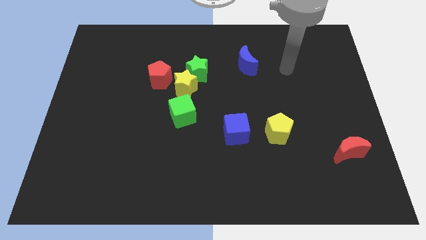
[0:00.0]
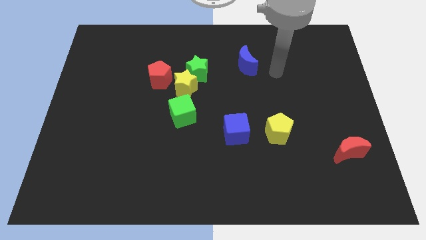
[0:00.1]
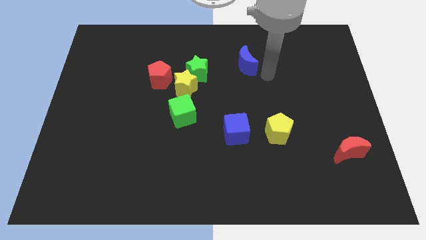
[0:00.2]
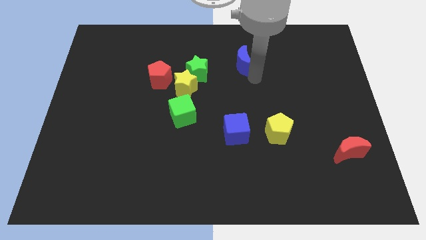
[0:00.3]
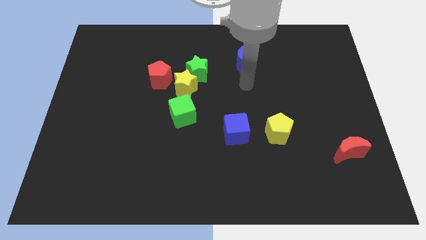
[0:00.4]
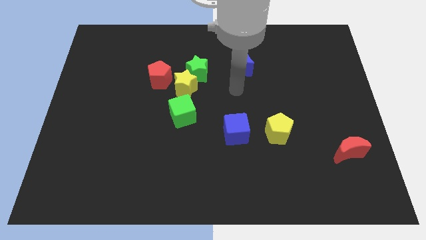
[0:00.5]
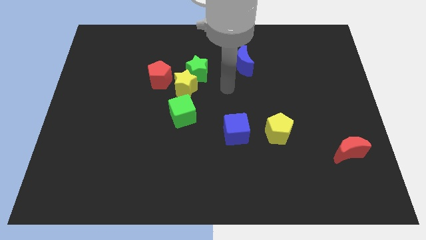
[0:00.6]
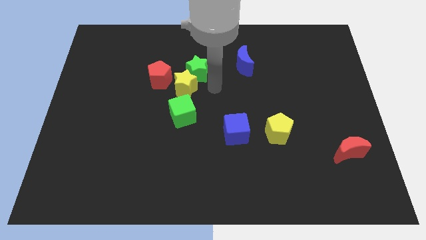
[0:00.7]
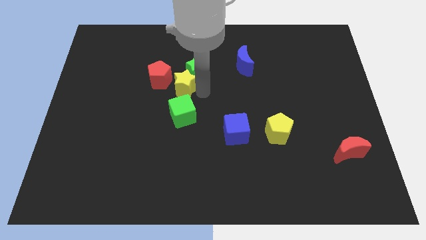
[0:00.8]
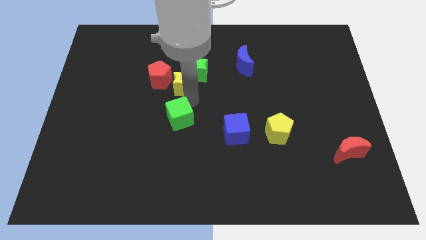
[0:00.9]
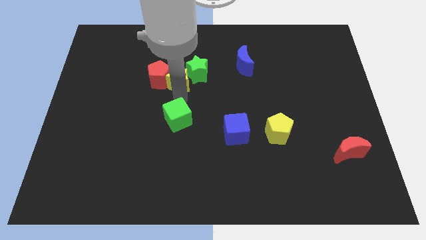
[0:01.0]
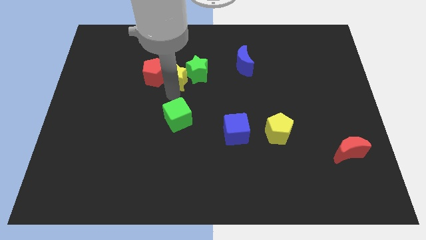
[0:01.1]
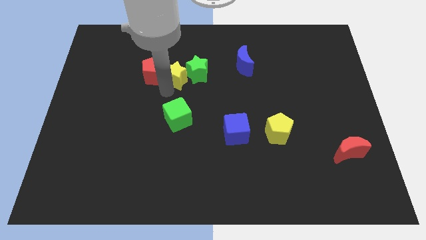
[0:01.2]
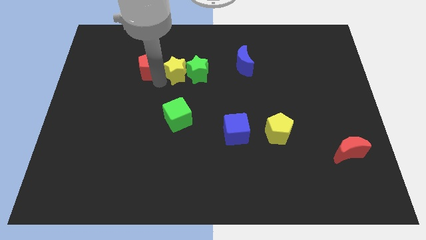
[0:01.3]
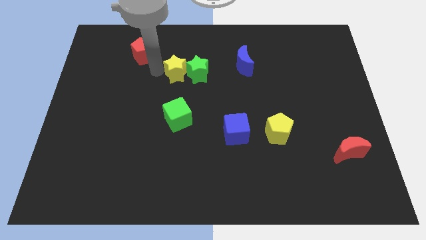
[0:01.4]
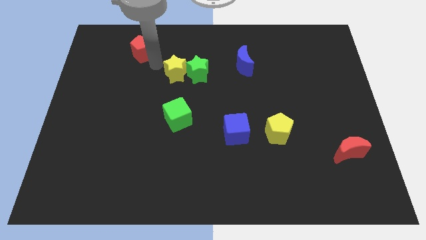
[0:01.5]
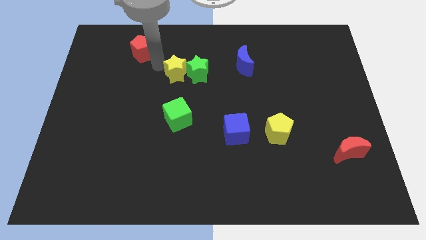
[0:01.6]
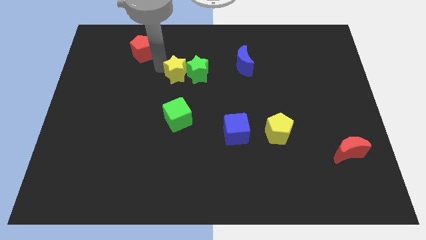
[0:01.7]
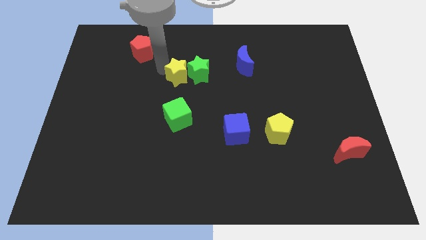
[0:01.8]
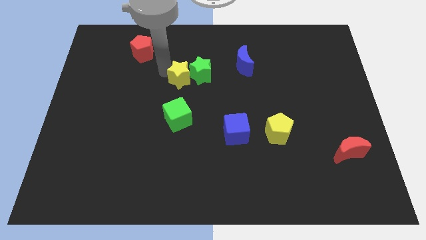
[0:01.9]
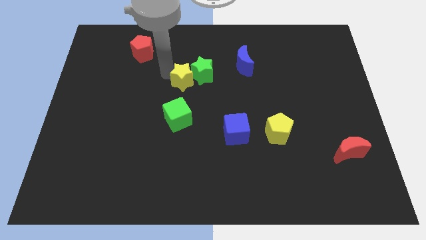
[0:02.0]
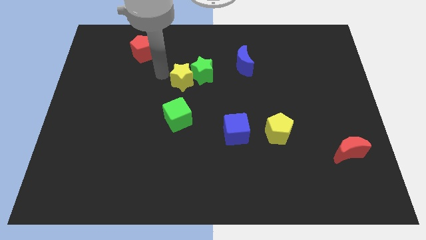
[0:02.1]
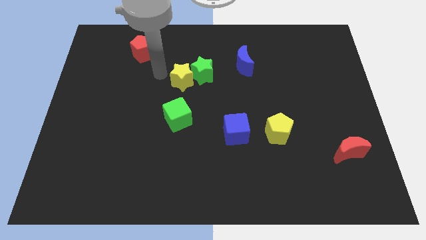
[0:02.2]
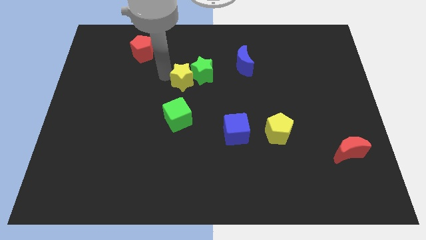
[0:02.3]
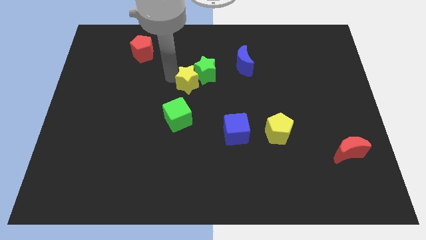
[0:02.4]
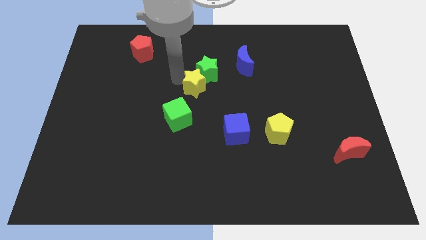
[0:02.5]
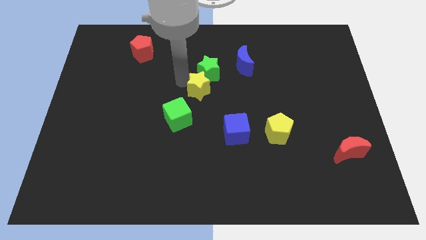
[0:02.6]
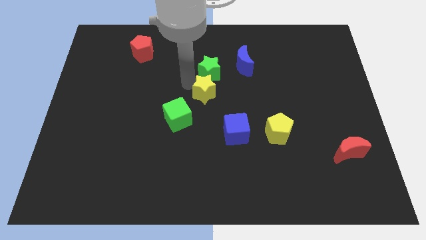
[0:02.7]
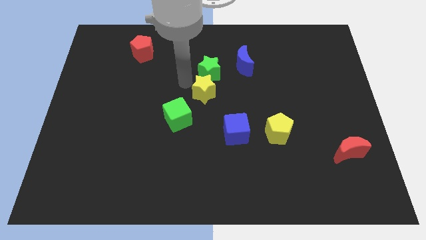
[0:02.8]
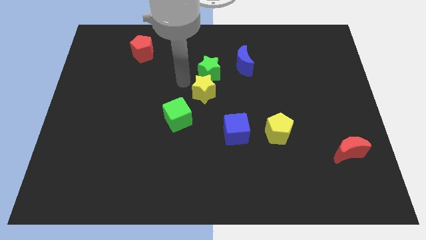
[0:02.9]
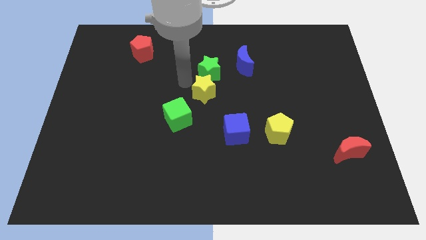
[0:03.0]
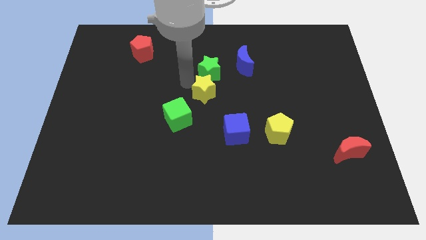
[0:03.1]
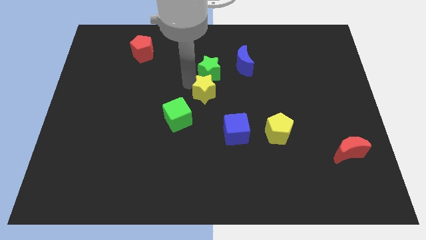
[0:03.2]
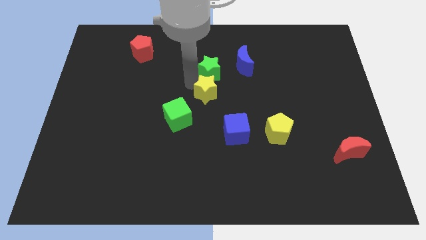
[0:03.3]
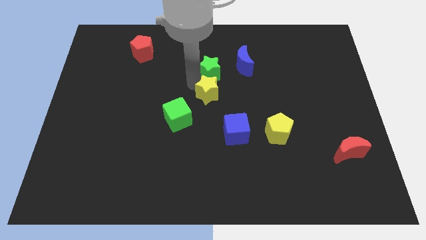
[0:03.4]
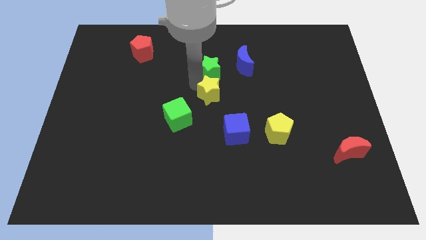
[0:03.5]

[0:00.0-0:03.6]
move the yellow star away from the group of blocks

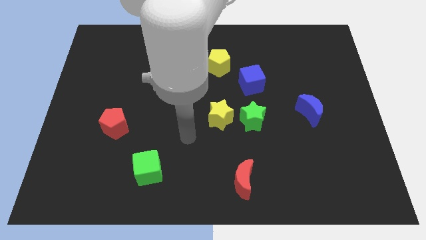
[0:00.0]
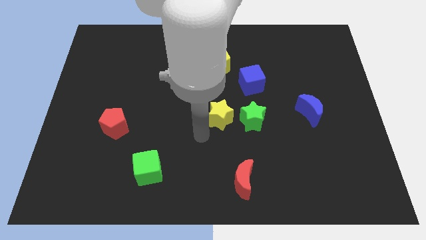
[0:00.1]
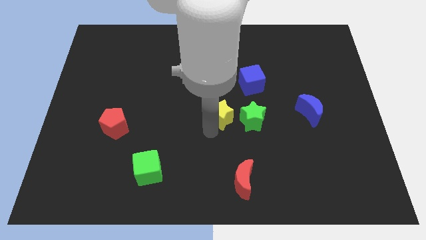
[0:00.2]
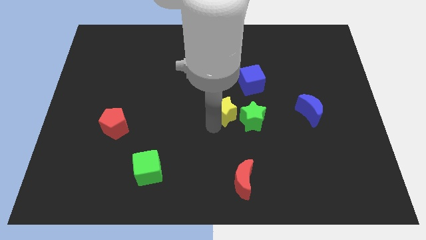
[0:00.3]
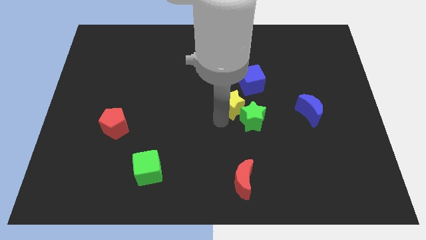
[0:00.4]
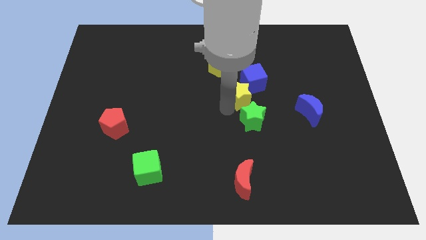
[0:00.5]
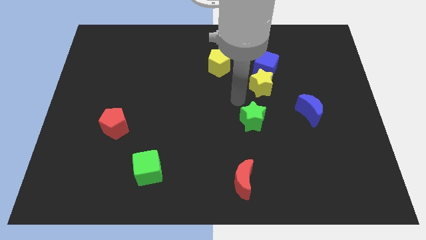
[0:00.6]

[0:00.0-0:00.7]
move the green star away from the yellow star

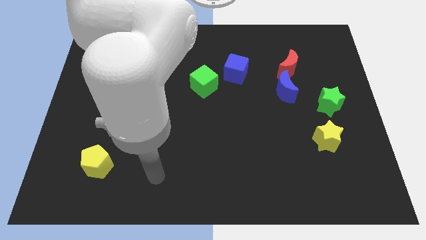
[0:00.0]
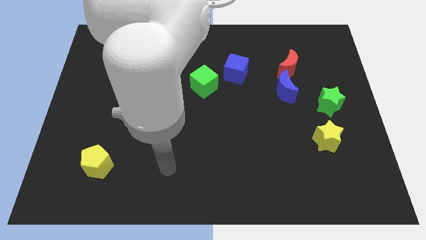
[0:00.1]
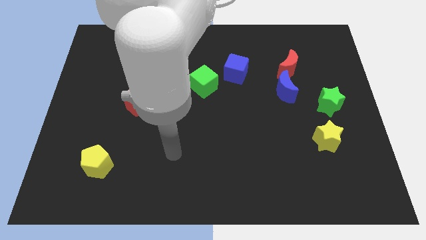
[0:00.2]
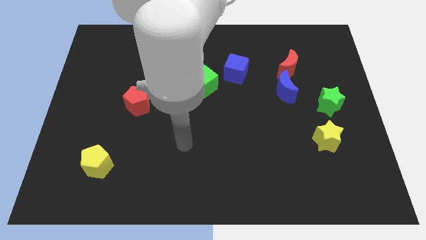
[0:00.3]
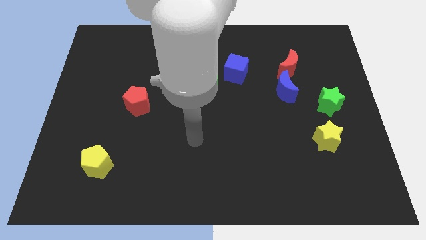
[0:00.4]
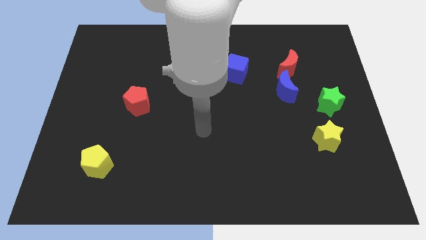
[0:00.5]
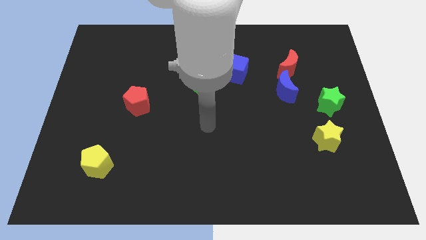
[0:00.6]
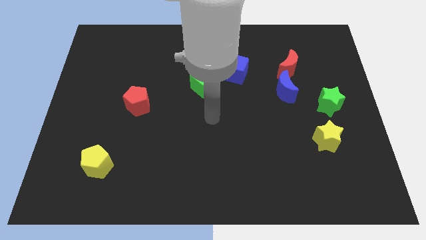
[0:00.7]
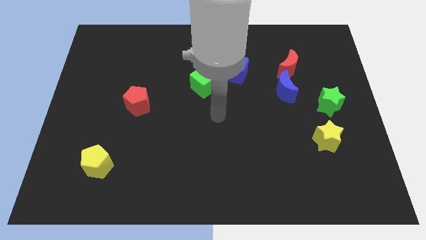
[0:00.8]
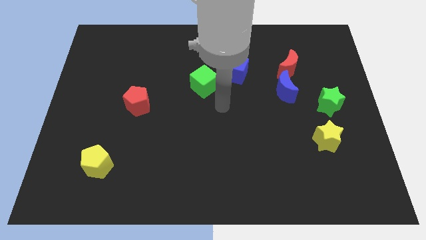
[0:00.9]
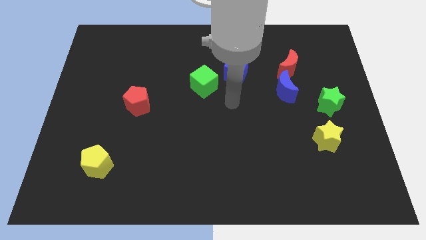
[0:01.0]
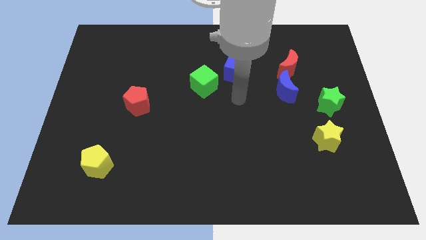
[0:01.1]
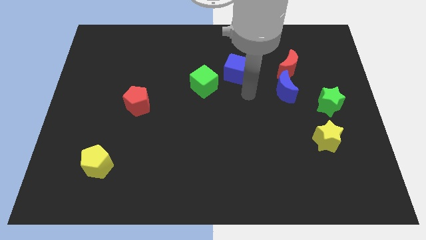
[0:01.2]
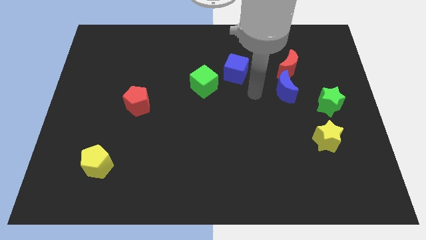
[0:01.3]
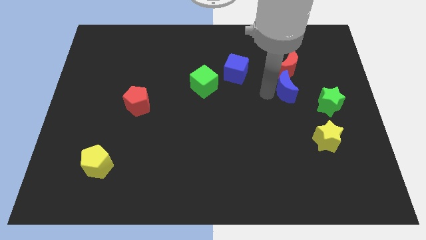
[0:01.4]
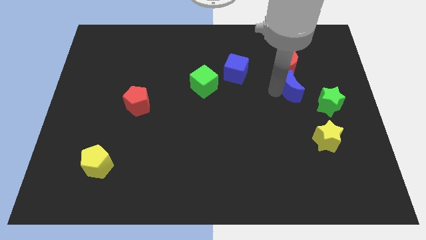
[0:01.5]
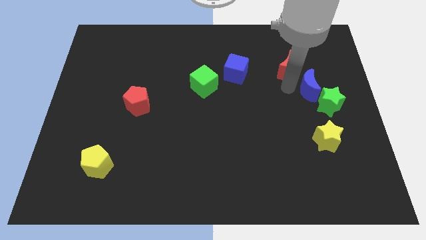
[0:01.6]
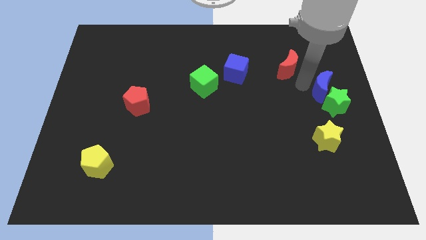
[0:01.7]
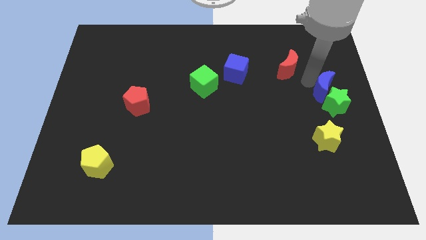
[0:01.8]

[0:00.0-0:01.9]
separate the red moon from the blue moon

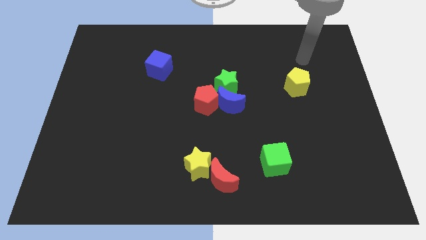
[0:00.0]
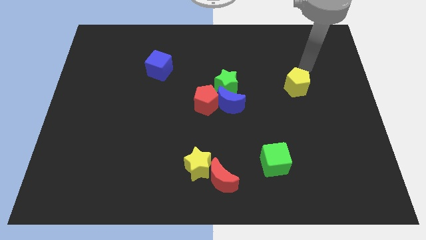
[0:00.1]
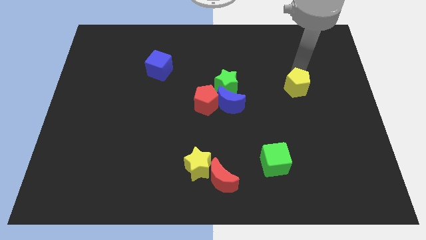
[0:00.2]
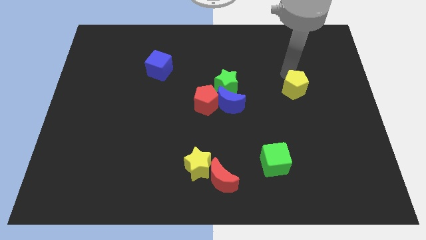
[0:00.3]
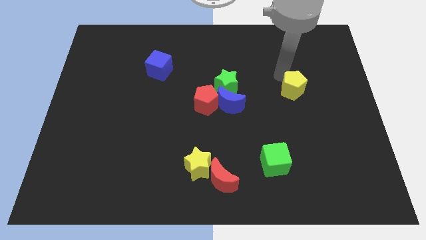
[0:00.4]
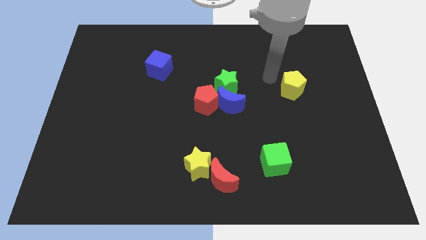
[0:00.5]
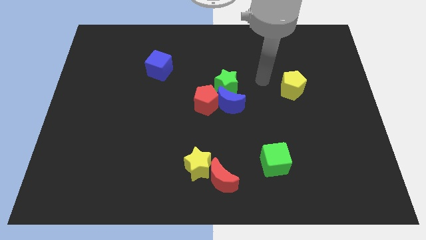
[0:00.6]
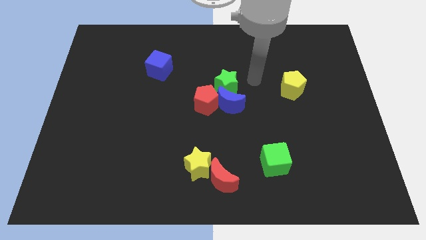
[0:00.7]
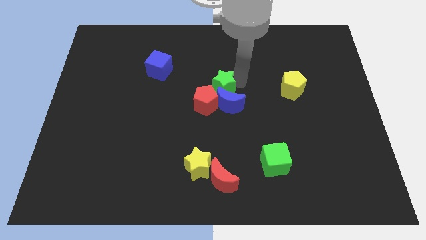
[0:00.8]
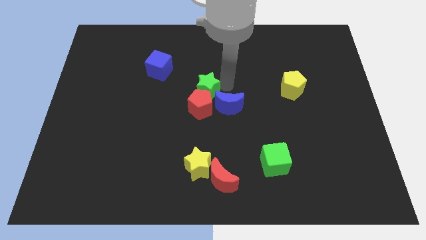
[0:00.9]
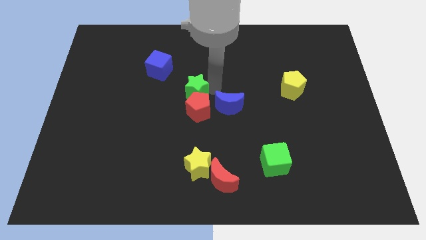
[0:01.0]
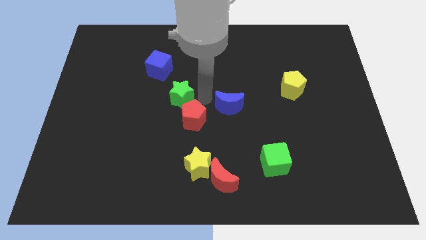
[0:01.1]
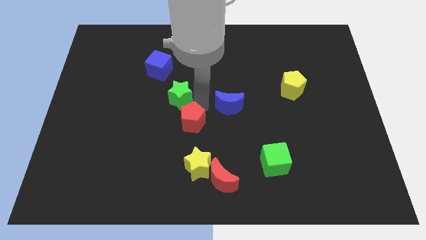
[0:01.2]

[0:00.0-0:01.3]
pull the blue moon apart from the red pentagon and green star

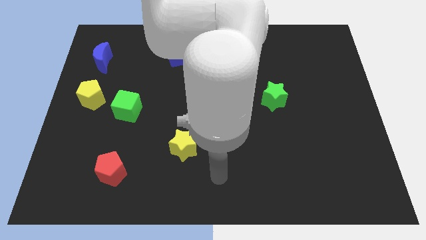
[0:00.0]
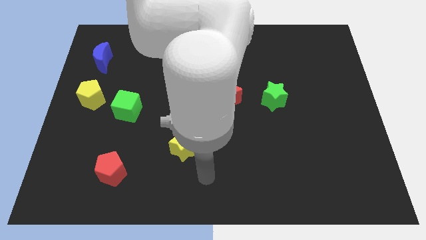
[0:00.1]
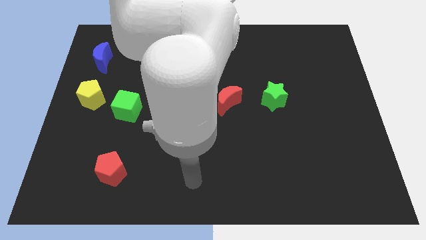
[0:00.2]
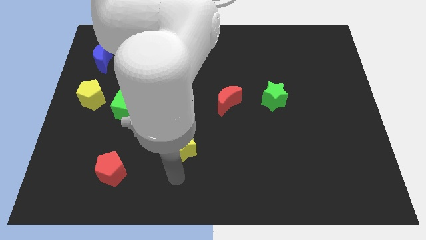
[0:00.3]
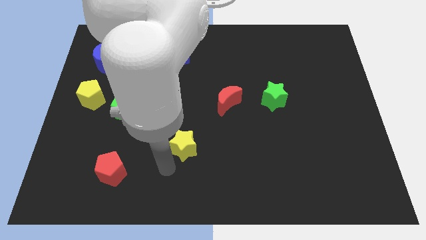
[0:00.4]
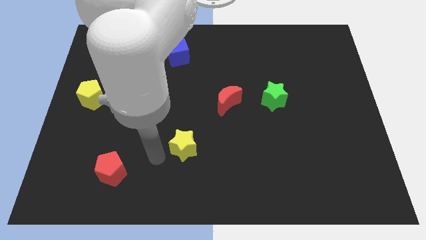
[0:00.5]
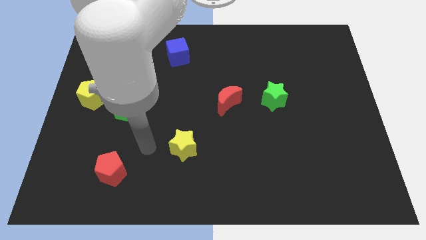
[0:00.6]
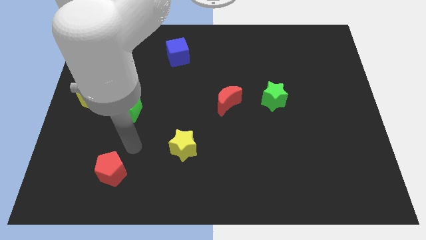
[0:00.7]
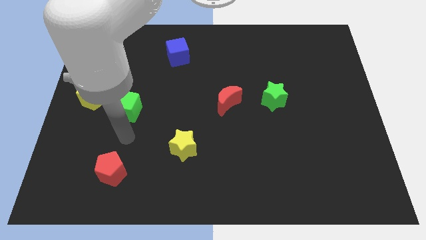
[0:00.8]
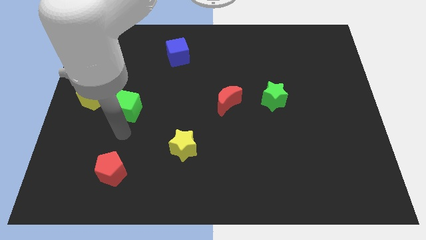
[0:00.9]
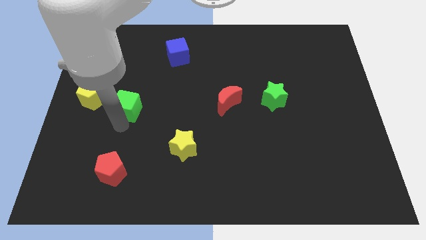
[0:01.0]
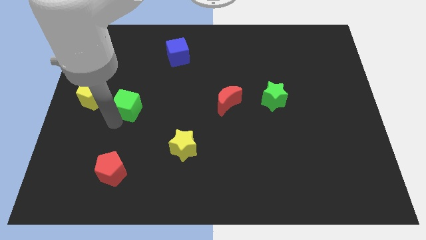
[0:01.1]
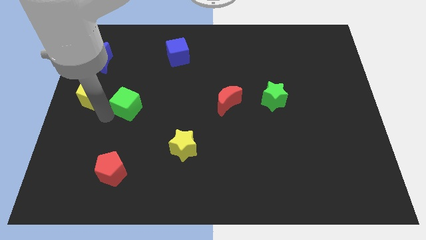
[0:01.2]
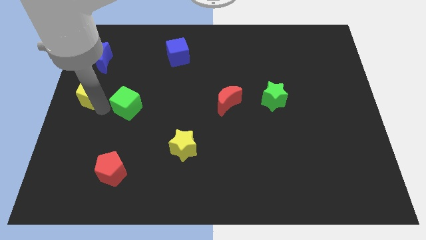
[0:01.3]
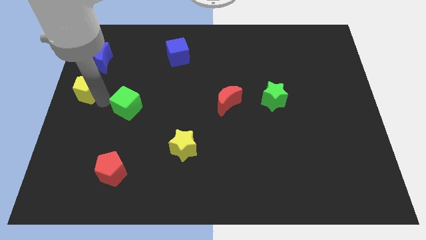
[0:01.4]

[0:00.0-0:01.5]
separate the green cube from the yellow pentagon

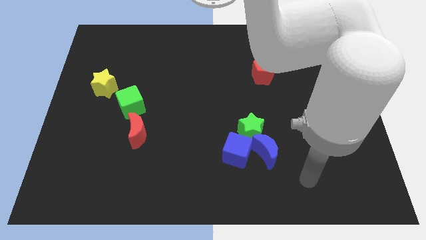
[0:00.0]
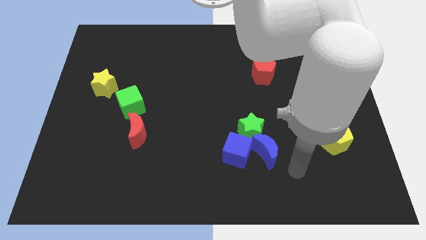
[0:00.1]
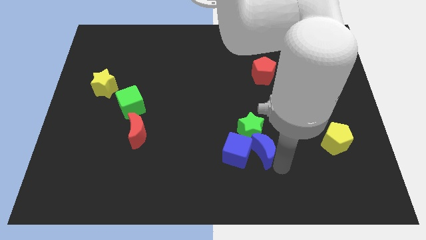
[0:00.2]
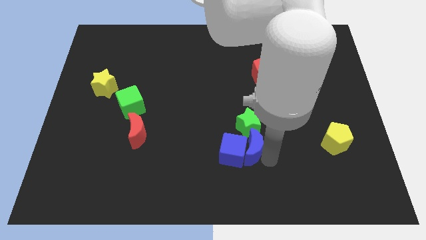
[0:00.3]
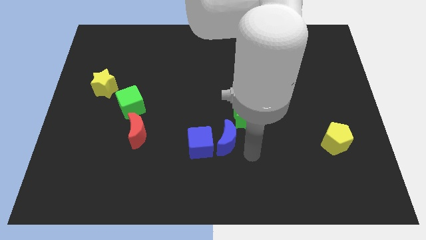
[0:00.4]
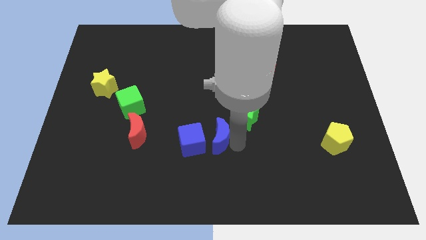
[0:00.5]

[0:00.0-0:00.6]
pull the green star apart from the blue moon and blue cube
